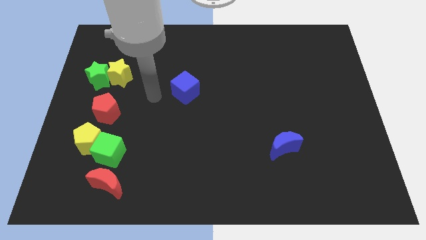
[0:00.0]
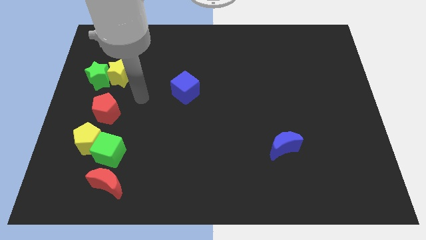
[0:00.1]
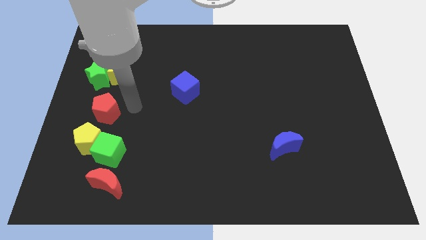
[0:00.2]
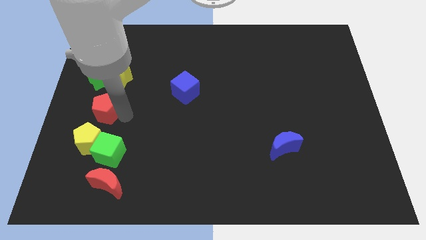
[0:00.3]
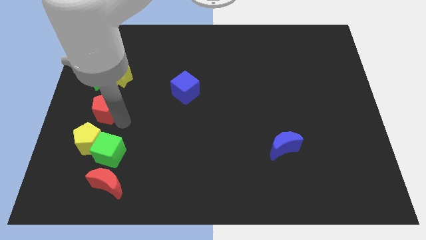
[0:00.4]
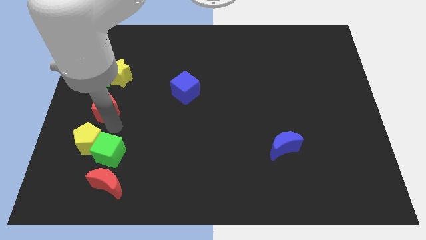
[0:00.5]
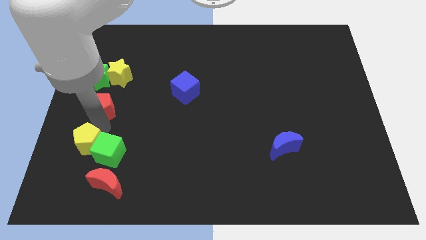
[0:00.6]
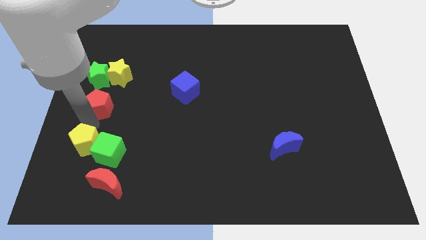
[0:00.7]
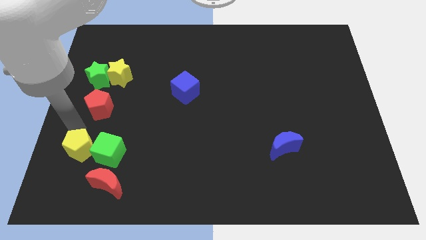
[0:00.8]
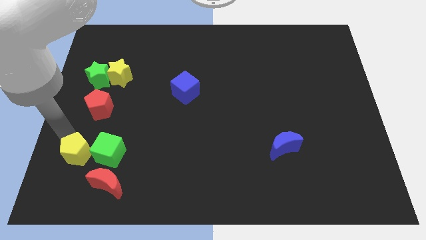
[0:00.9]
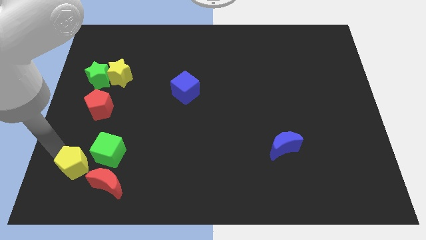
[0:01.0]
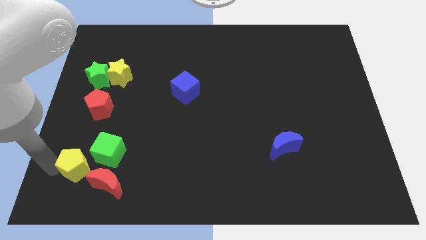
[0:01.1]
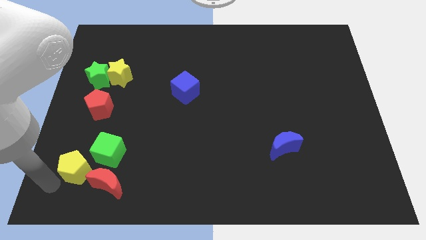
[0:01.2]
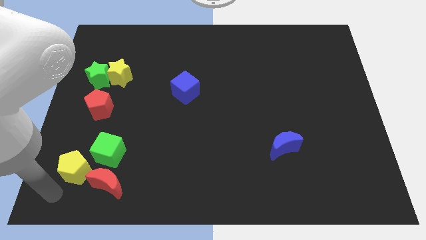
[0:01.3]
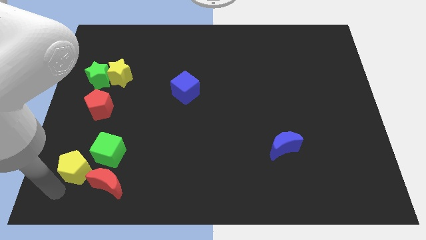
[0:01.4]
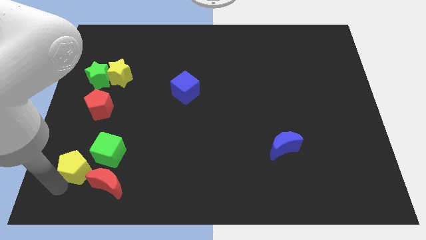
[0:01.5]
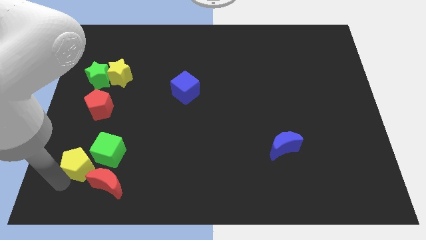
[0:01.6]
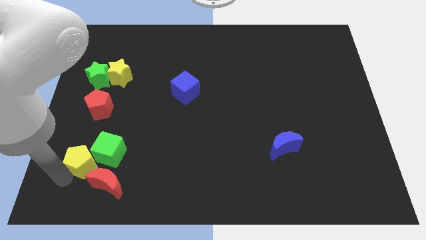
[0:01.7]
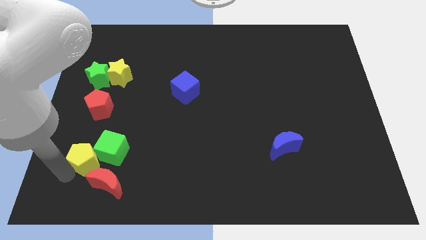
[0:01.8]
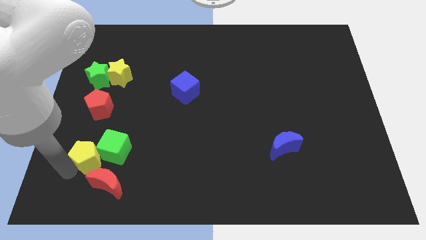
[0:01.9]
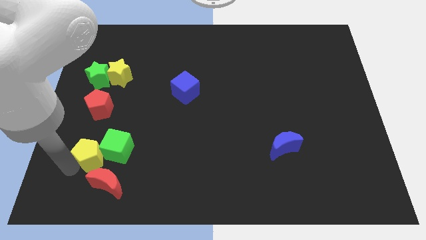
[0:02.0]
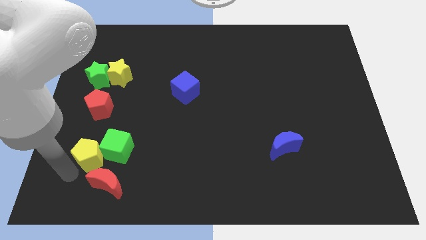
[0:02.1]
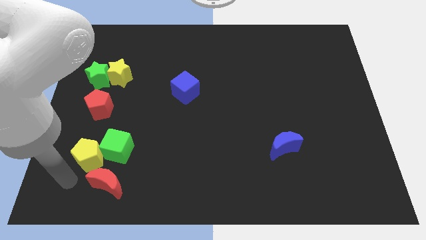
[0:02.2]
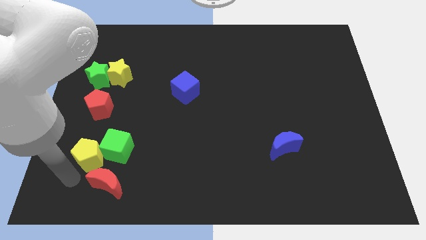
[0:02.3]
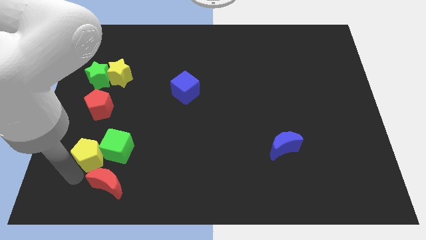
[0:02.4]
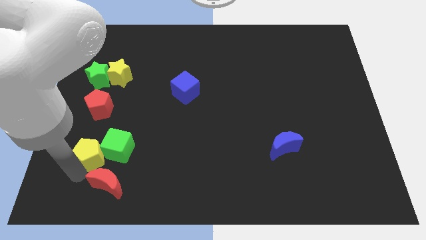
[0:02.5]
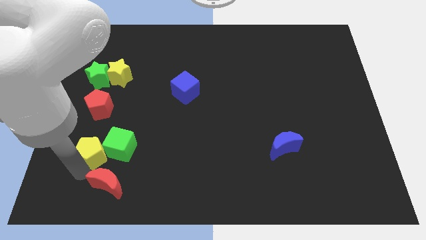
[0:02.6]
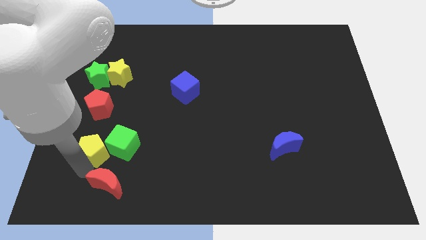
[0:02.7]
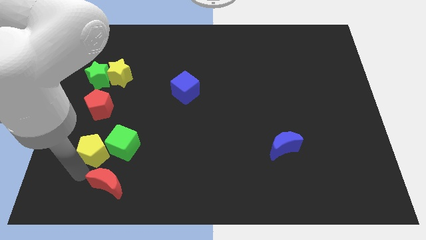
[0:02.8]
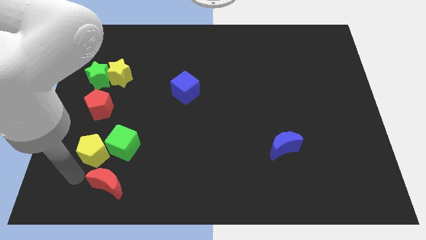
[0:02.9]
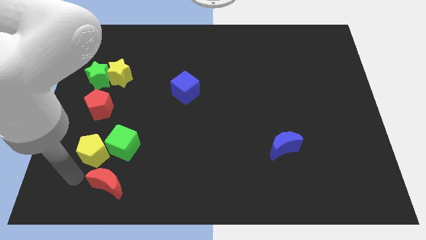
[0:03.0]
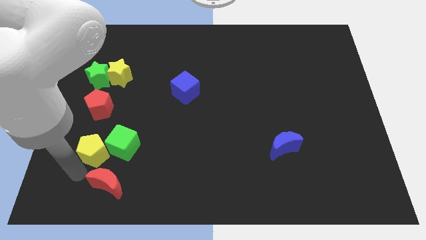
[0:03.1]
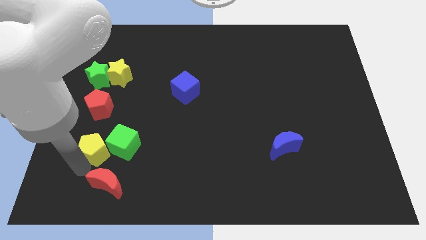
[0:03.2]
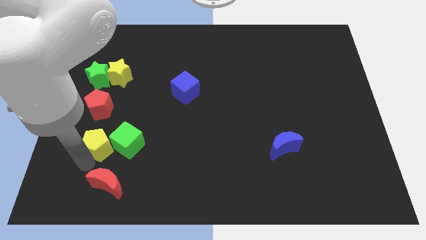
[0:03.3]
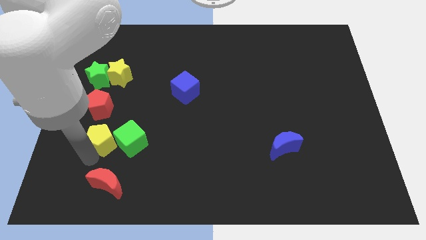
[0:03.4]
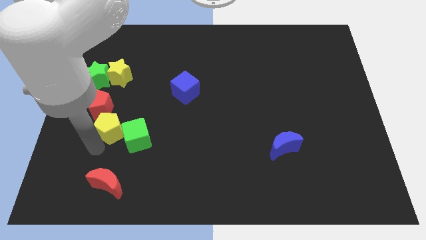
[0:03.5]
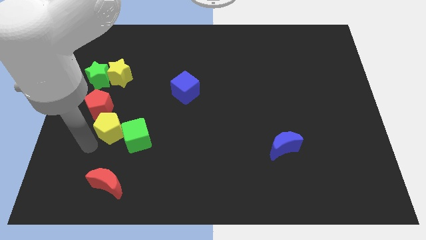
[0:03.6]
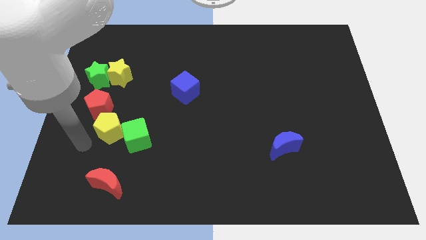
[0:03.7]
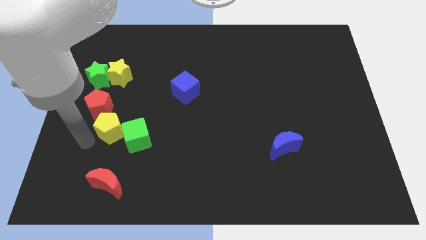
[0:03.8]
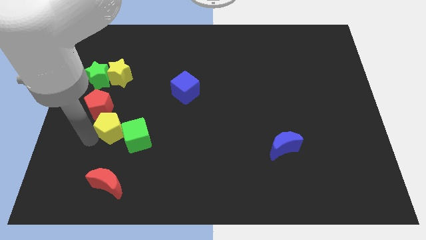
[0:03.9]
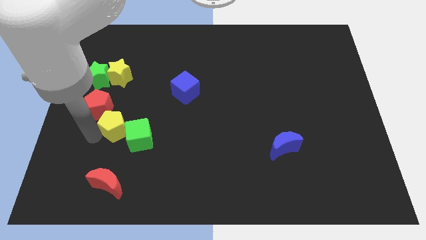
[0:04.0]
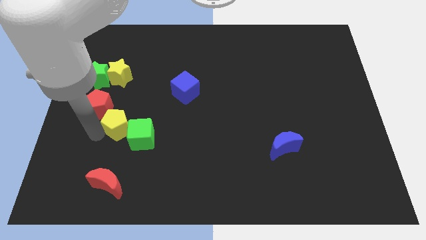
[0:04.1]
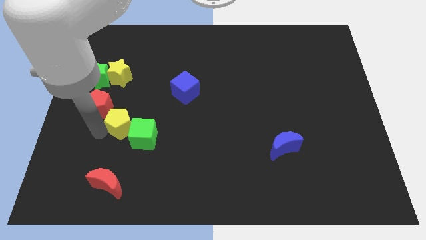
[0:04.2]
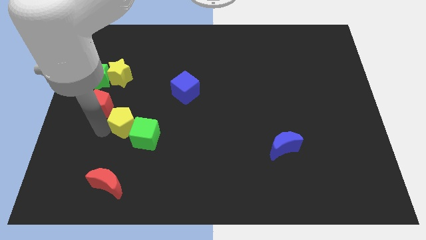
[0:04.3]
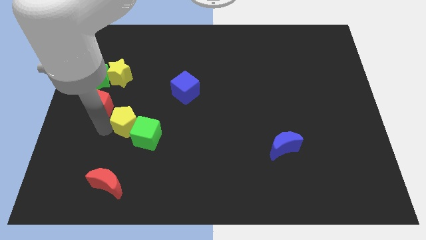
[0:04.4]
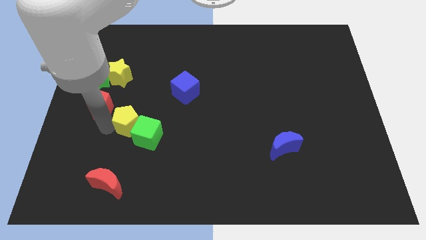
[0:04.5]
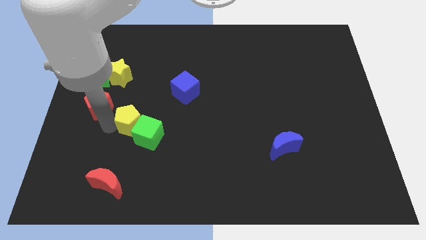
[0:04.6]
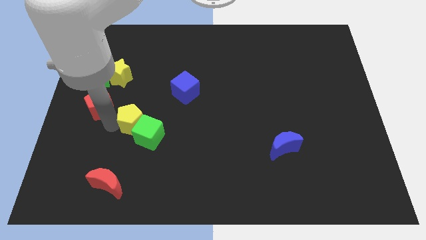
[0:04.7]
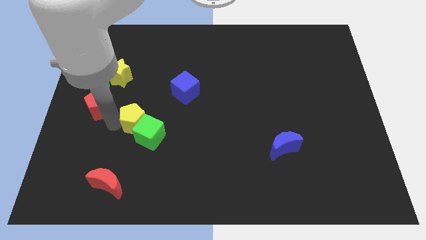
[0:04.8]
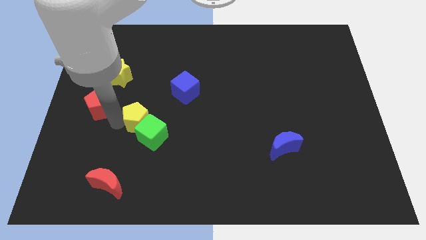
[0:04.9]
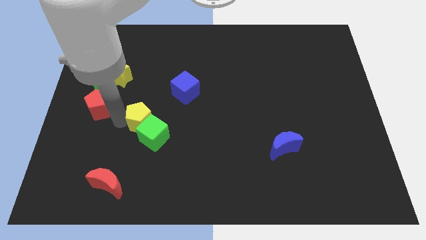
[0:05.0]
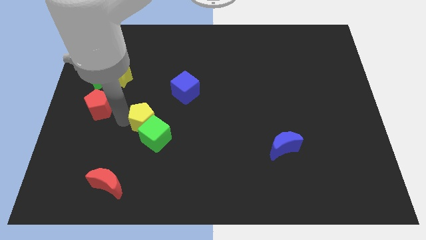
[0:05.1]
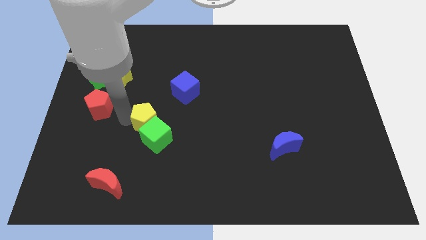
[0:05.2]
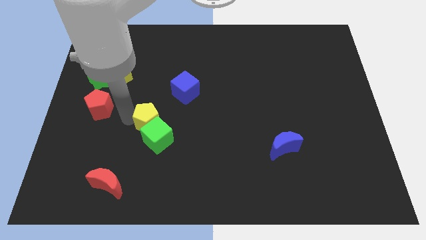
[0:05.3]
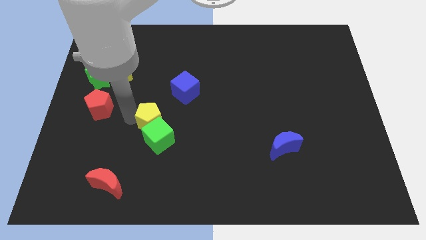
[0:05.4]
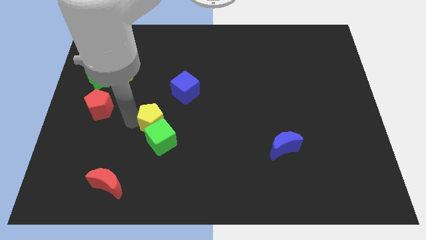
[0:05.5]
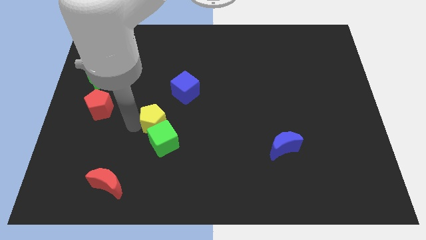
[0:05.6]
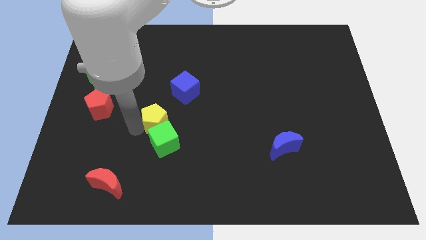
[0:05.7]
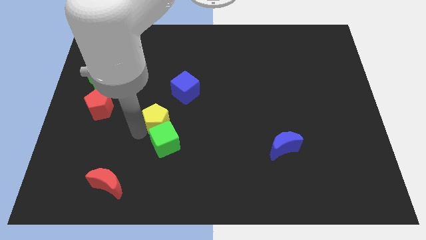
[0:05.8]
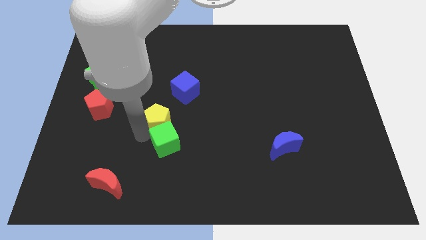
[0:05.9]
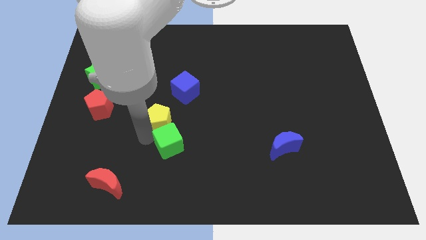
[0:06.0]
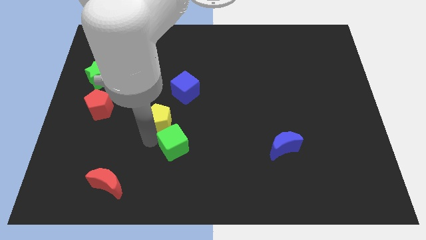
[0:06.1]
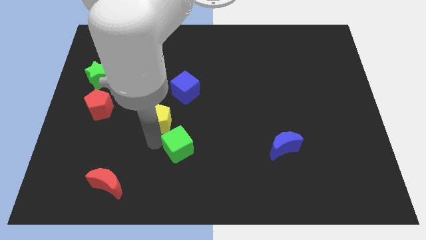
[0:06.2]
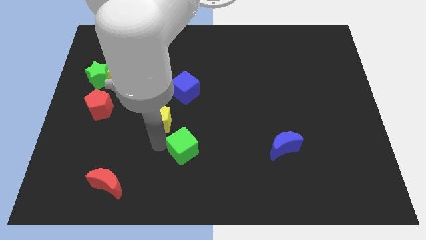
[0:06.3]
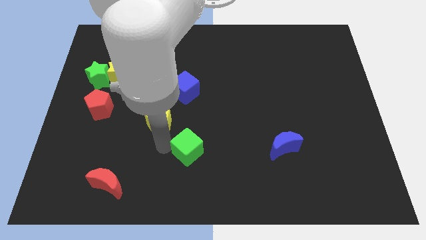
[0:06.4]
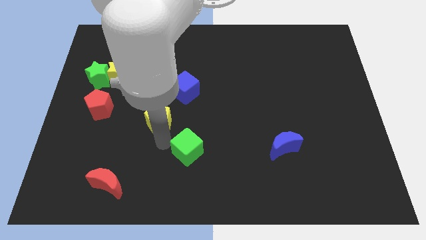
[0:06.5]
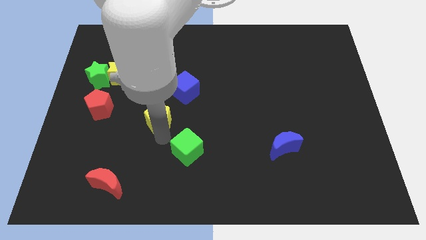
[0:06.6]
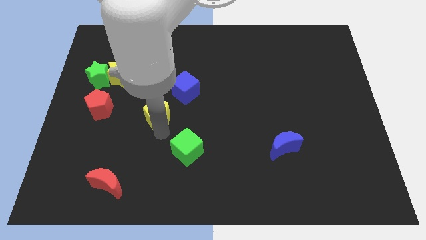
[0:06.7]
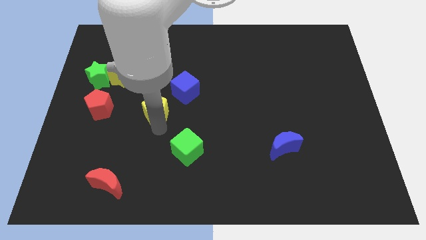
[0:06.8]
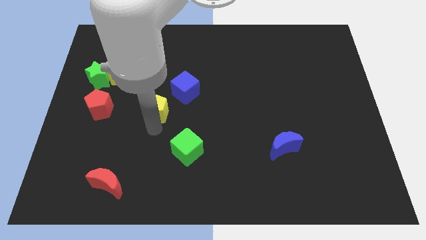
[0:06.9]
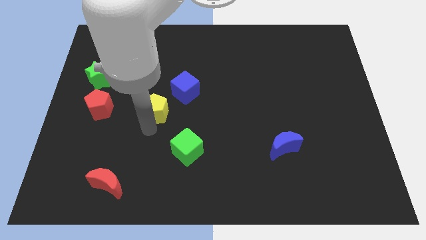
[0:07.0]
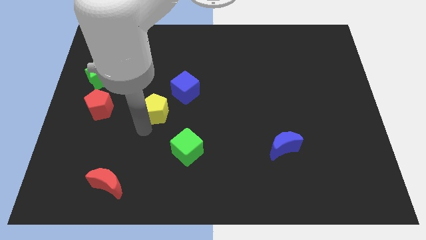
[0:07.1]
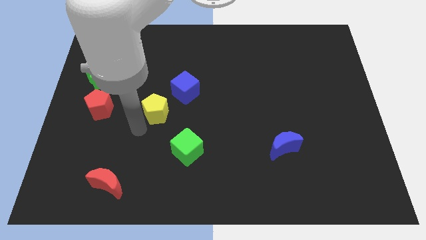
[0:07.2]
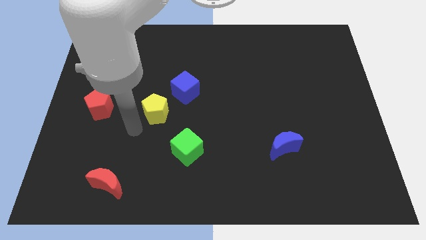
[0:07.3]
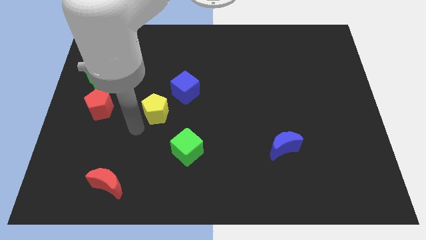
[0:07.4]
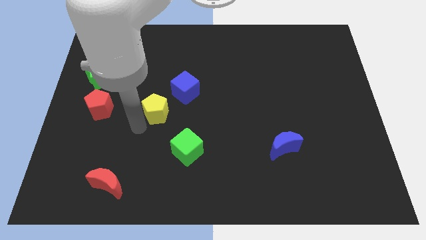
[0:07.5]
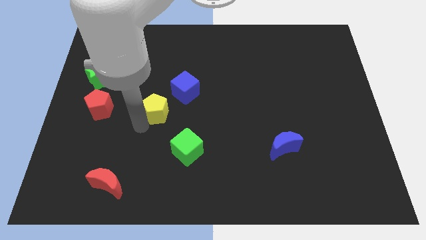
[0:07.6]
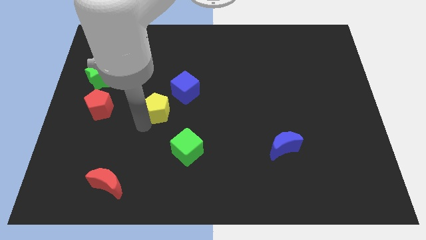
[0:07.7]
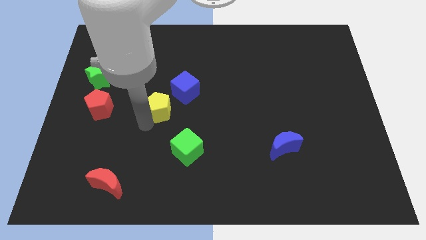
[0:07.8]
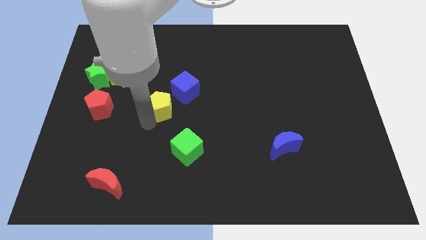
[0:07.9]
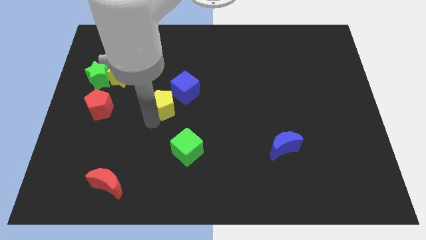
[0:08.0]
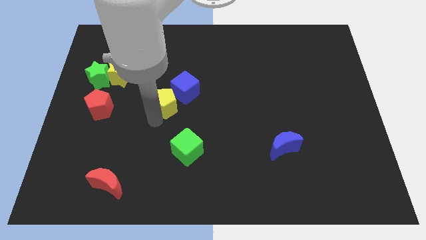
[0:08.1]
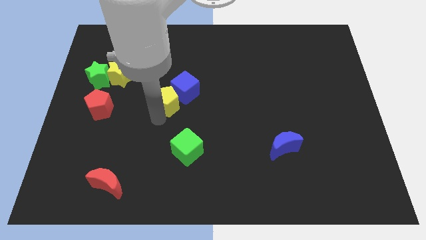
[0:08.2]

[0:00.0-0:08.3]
slide the yellow pentagon close to the blue cube
